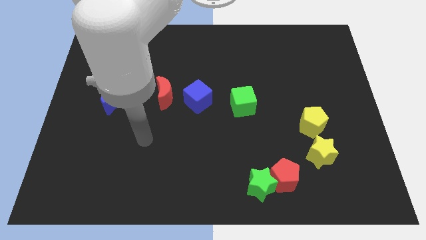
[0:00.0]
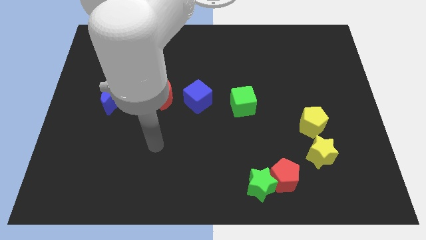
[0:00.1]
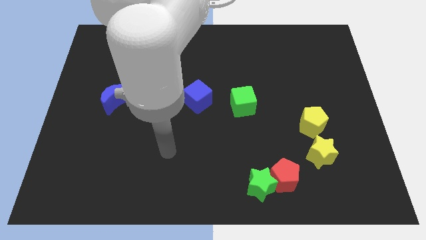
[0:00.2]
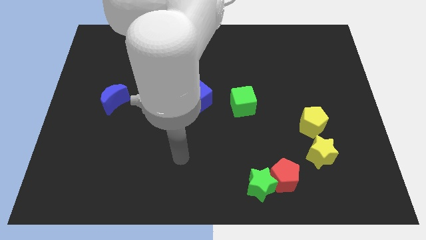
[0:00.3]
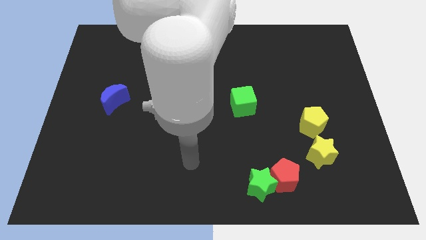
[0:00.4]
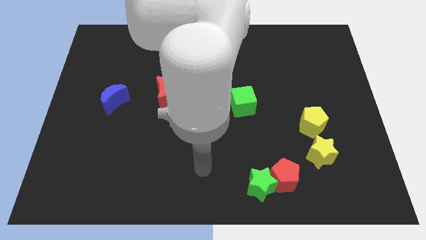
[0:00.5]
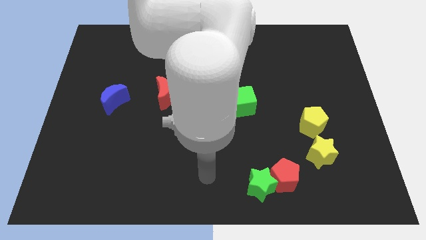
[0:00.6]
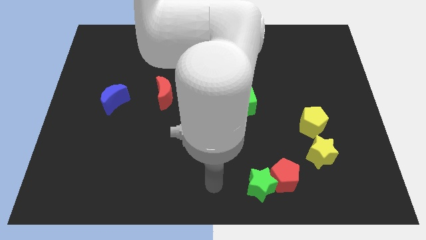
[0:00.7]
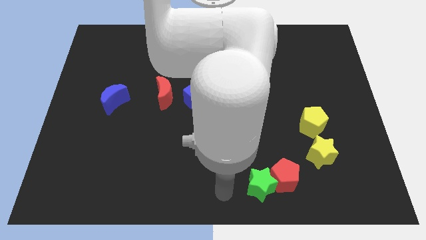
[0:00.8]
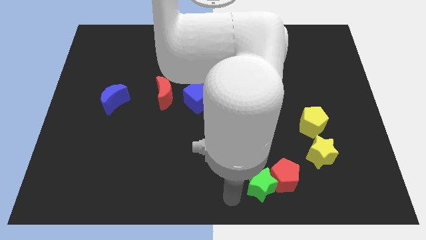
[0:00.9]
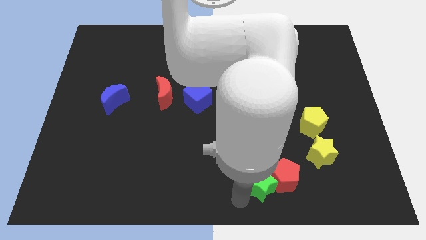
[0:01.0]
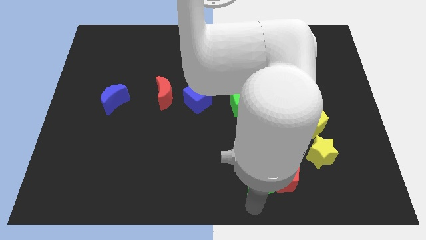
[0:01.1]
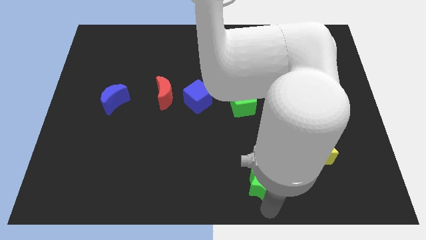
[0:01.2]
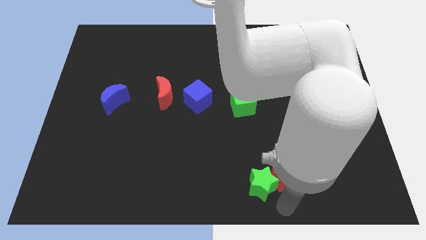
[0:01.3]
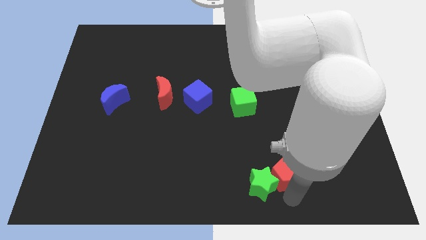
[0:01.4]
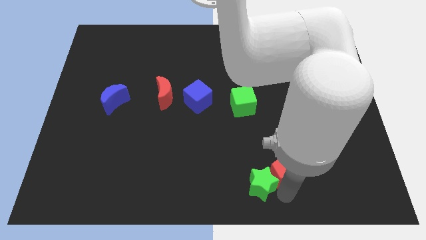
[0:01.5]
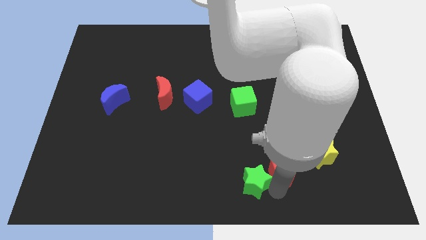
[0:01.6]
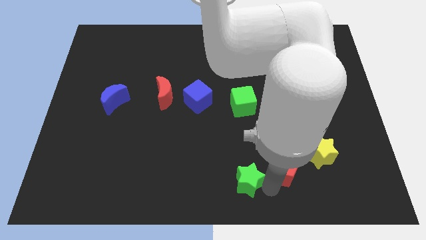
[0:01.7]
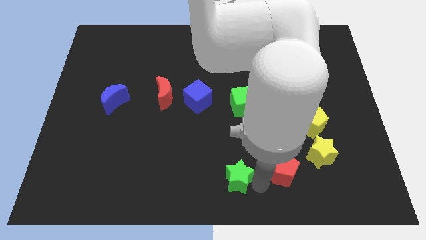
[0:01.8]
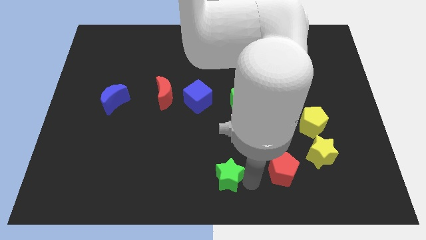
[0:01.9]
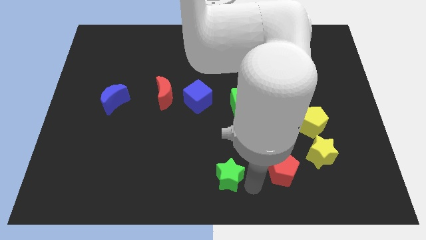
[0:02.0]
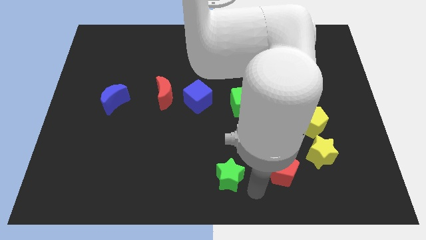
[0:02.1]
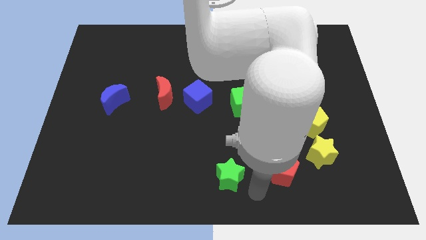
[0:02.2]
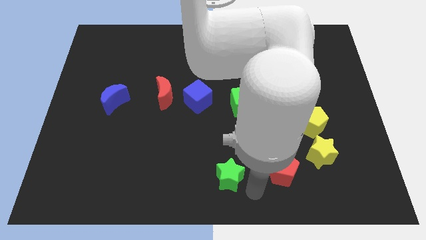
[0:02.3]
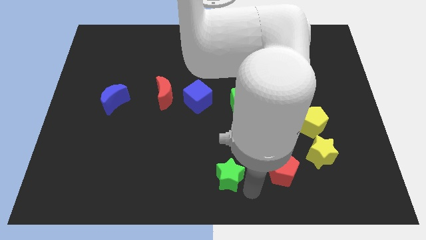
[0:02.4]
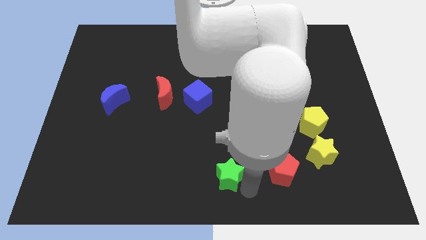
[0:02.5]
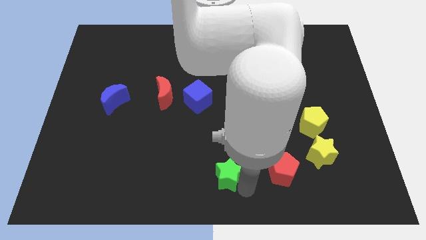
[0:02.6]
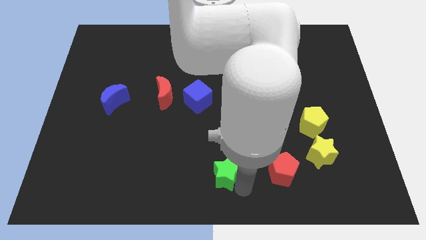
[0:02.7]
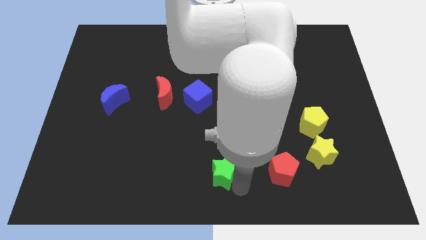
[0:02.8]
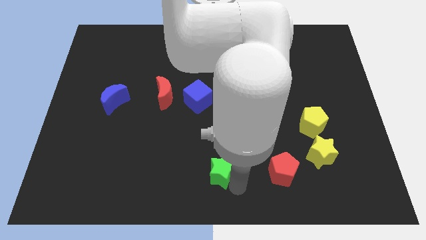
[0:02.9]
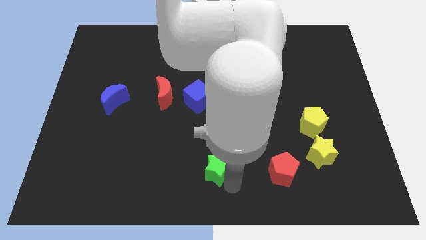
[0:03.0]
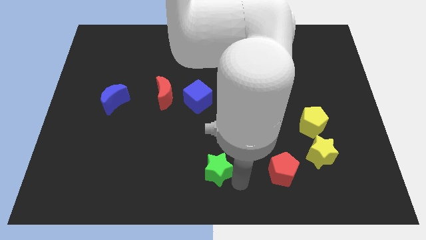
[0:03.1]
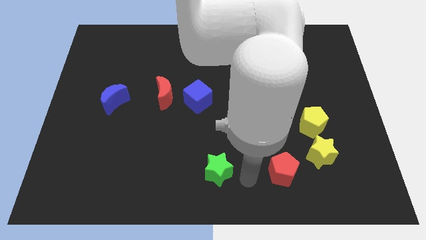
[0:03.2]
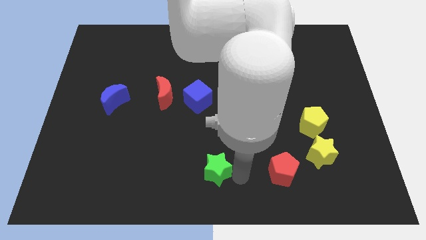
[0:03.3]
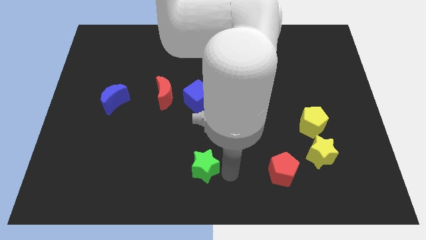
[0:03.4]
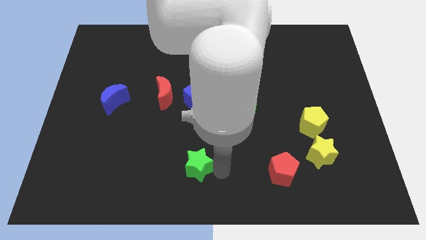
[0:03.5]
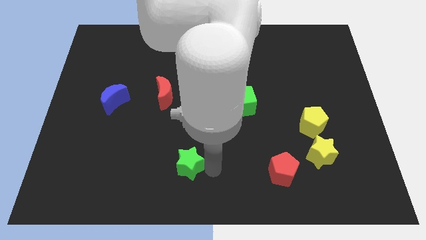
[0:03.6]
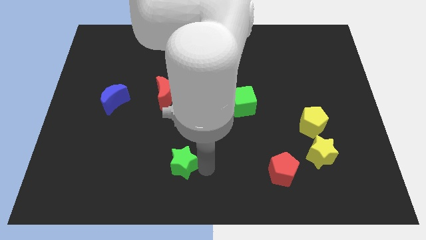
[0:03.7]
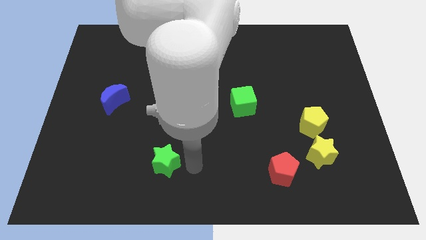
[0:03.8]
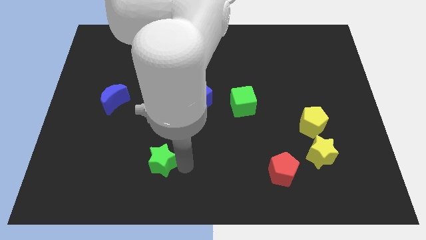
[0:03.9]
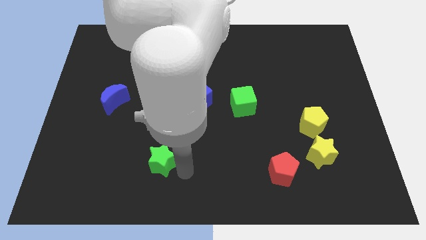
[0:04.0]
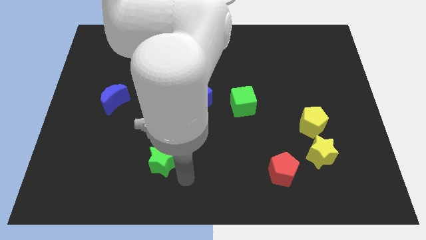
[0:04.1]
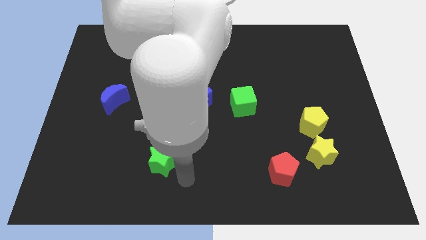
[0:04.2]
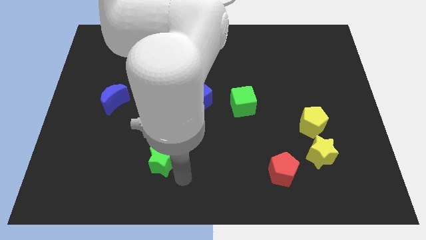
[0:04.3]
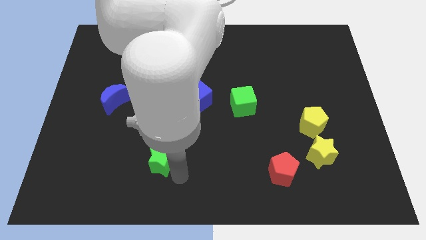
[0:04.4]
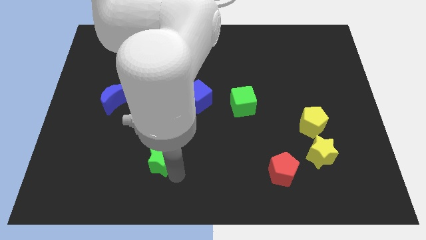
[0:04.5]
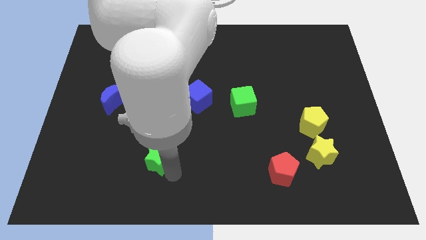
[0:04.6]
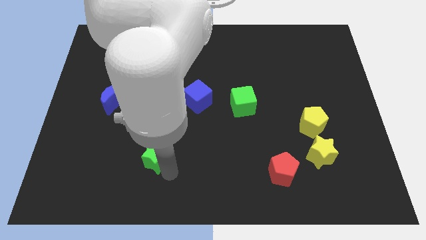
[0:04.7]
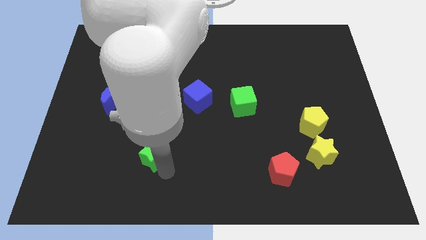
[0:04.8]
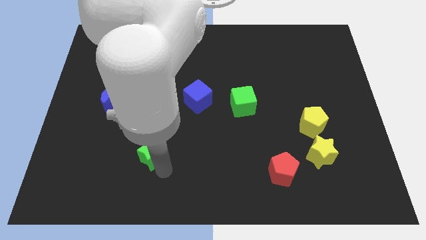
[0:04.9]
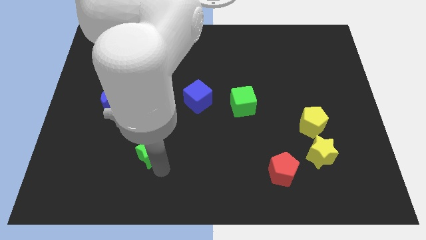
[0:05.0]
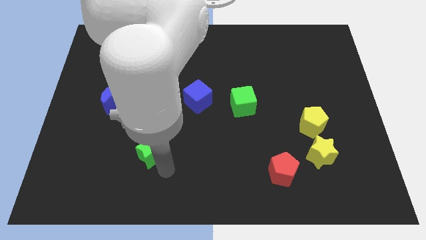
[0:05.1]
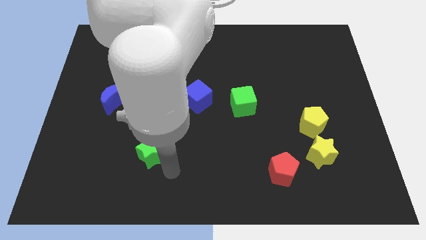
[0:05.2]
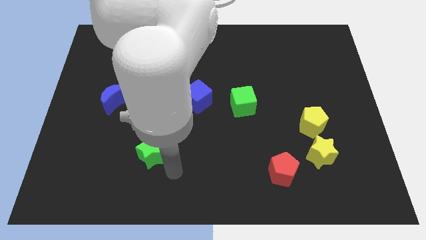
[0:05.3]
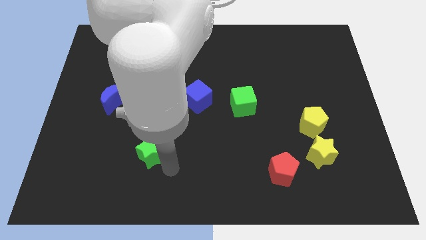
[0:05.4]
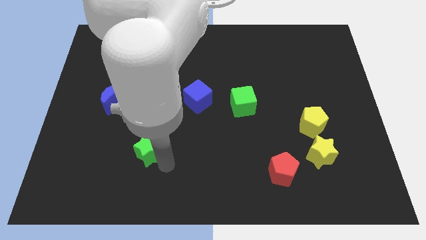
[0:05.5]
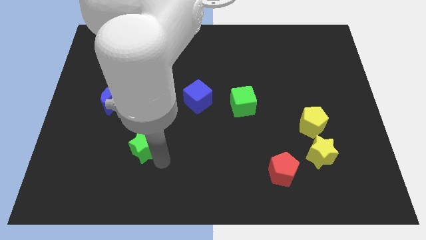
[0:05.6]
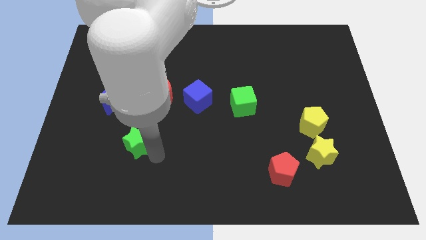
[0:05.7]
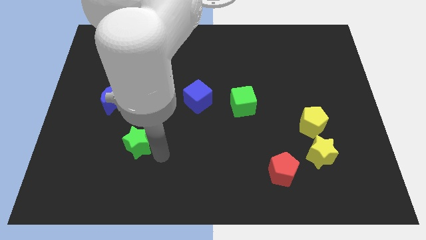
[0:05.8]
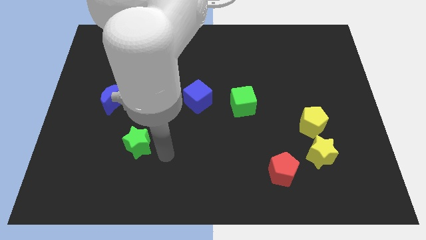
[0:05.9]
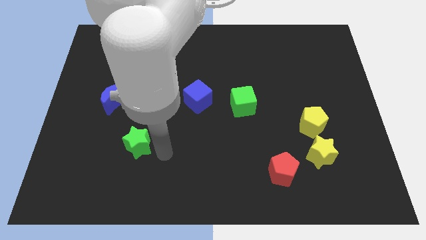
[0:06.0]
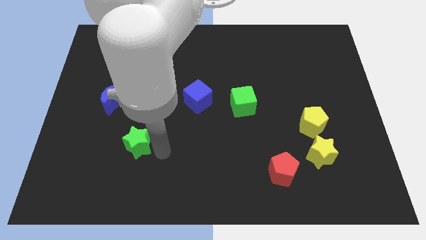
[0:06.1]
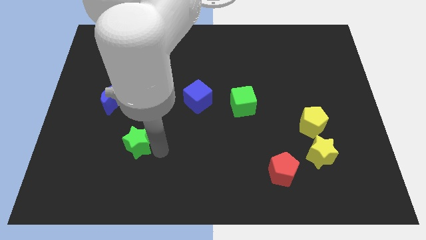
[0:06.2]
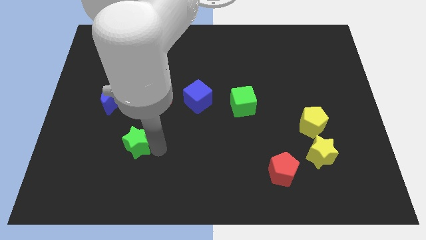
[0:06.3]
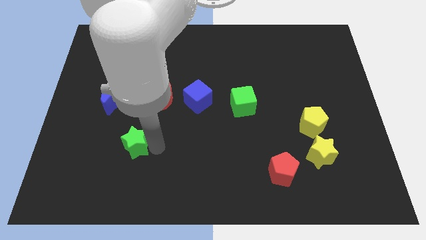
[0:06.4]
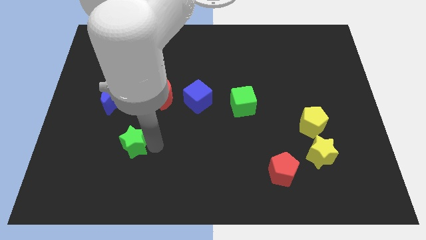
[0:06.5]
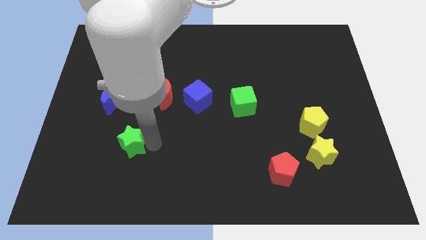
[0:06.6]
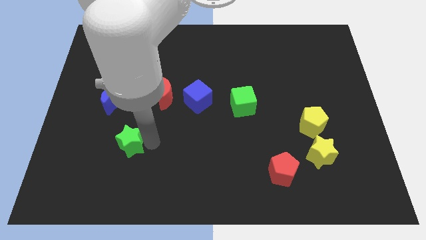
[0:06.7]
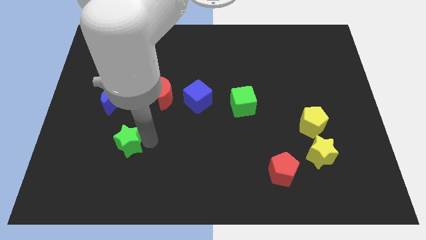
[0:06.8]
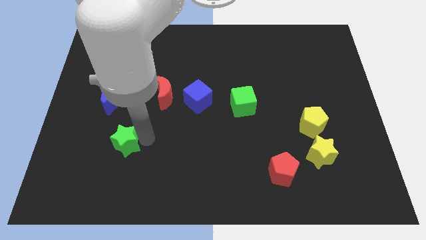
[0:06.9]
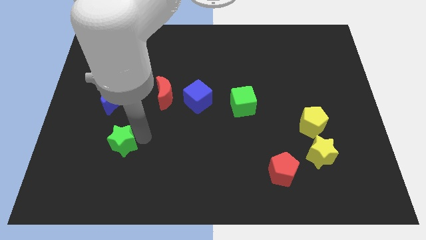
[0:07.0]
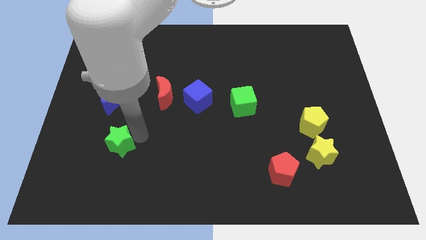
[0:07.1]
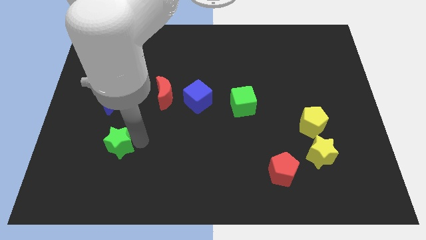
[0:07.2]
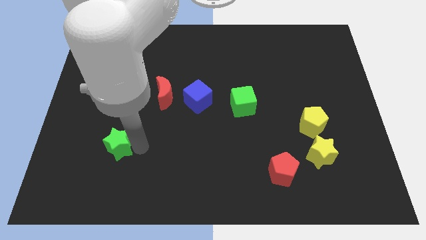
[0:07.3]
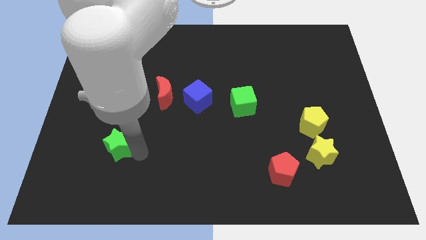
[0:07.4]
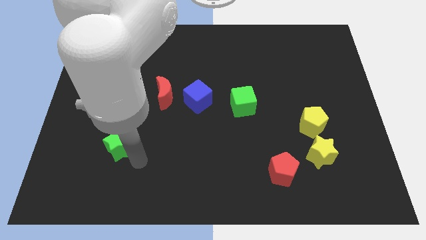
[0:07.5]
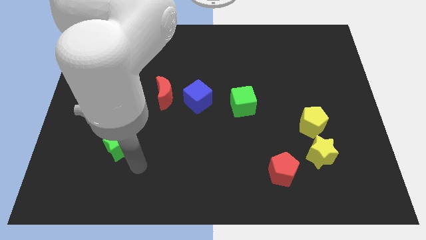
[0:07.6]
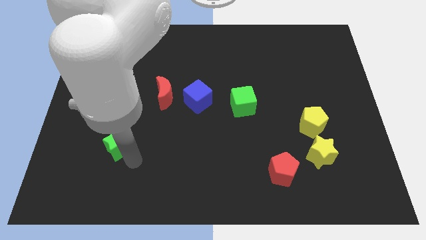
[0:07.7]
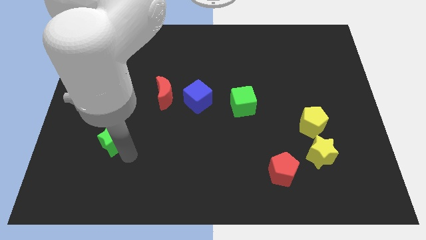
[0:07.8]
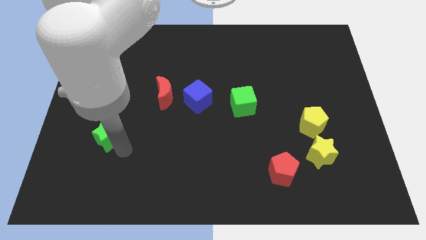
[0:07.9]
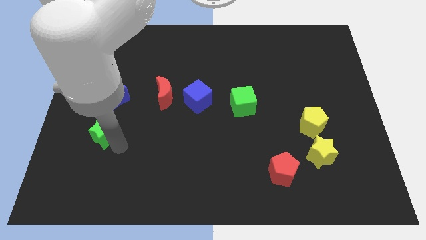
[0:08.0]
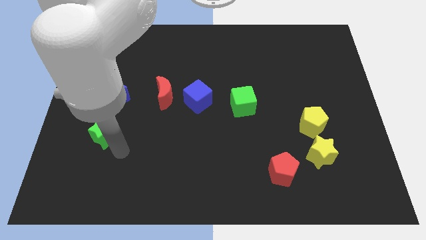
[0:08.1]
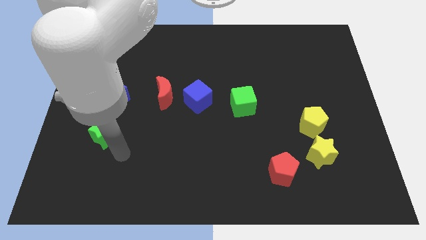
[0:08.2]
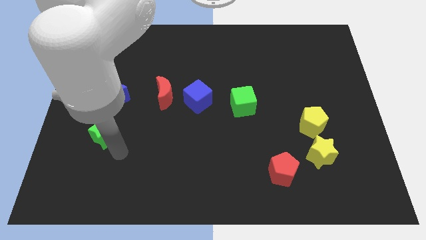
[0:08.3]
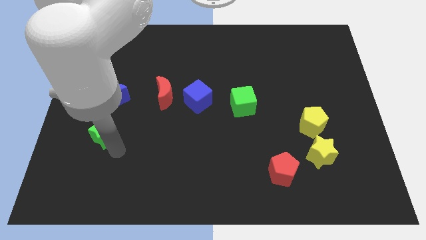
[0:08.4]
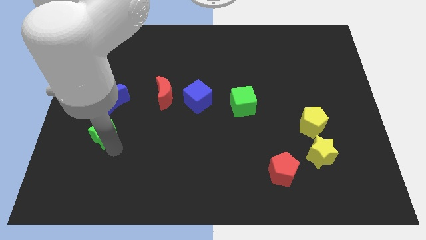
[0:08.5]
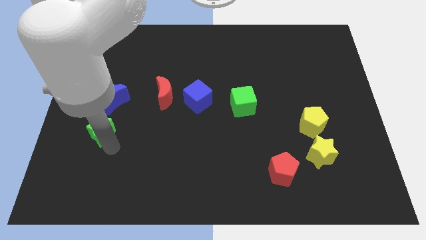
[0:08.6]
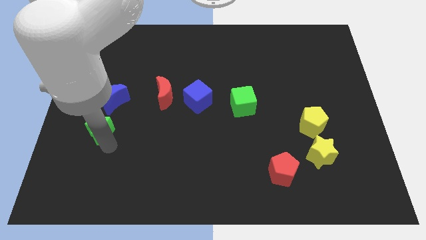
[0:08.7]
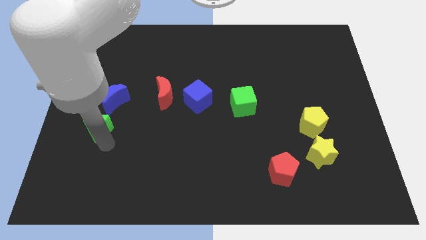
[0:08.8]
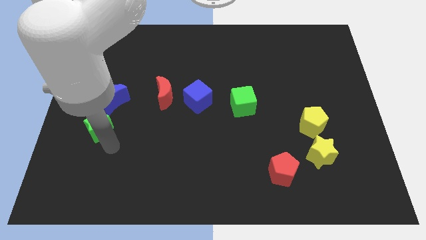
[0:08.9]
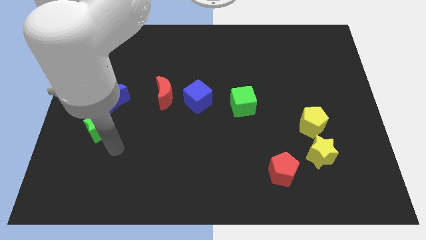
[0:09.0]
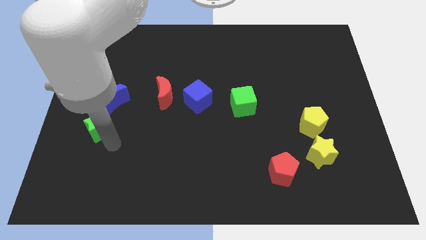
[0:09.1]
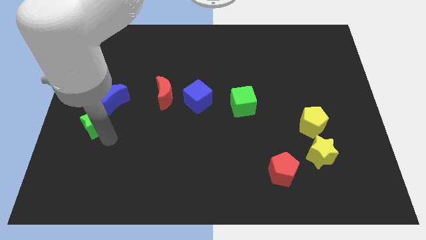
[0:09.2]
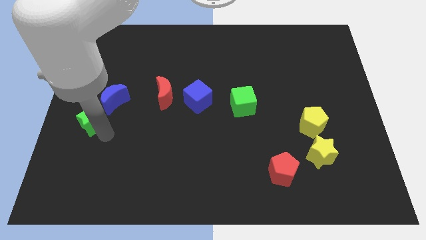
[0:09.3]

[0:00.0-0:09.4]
push the green star to the left side
